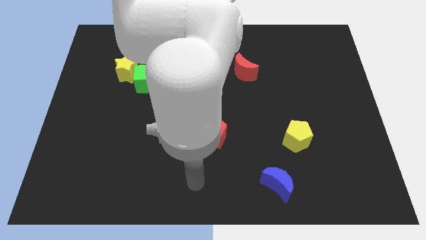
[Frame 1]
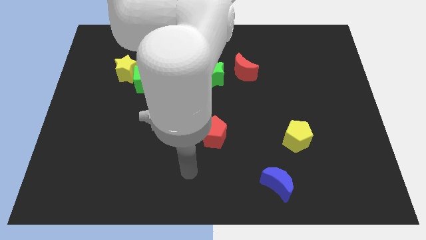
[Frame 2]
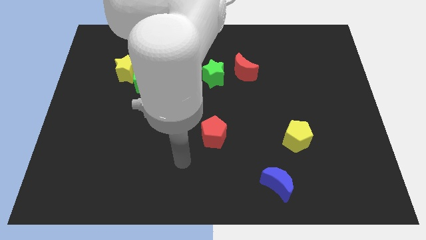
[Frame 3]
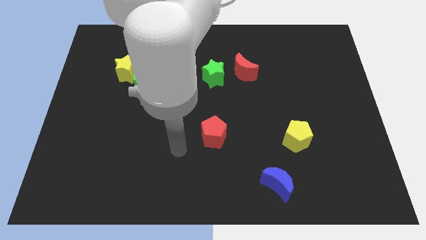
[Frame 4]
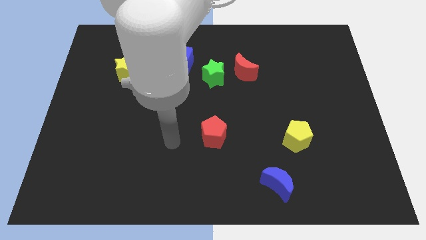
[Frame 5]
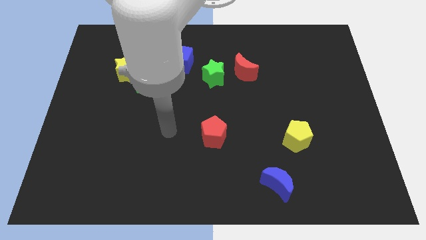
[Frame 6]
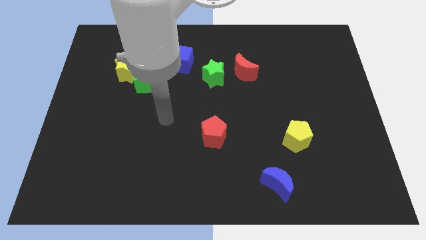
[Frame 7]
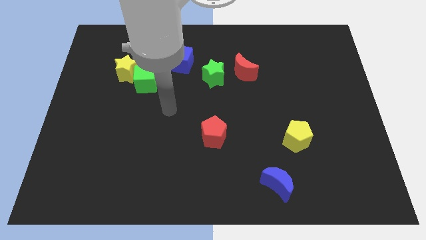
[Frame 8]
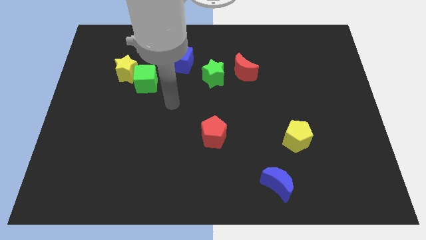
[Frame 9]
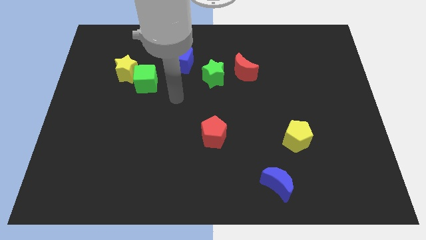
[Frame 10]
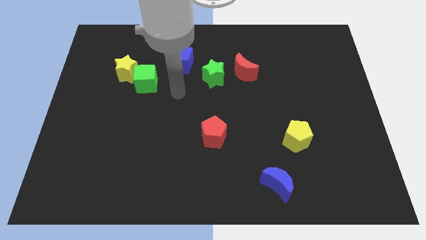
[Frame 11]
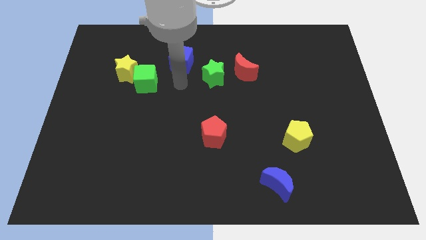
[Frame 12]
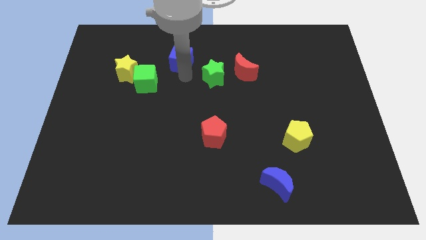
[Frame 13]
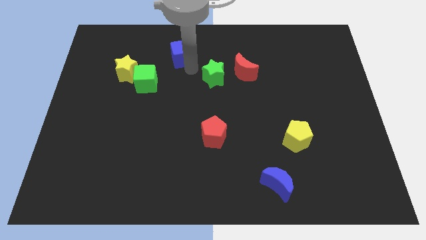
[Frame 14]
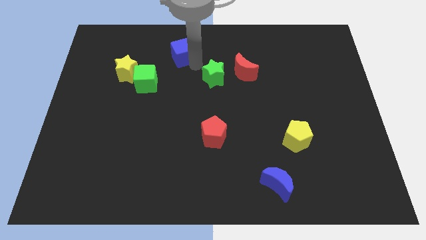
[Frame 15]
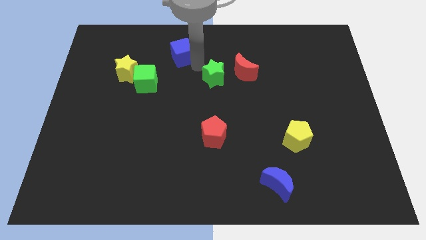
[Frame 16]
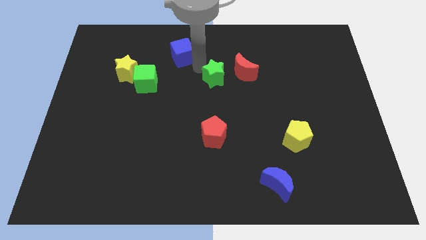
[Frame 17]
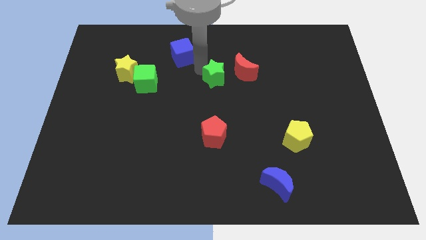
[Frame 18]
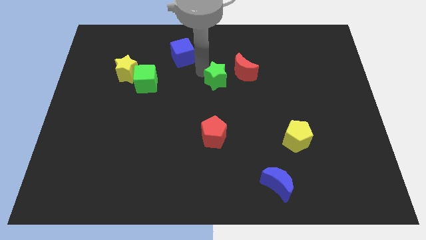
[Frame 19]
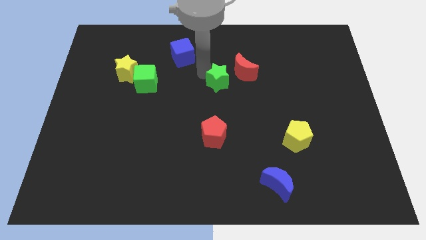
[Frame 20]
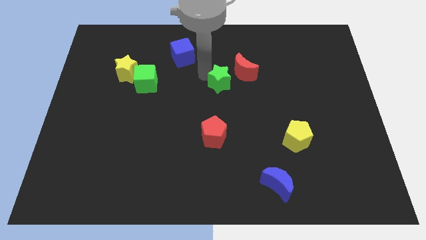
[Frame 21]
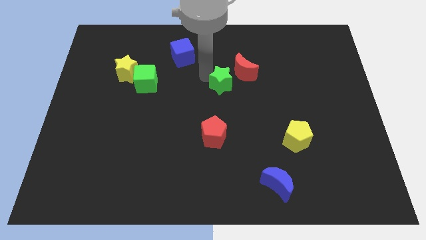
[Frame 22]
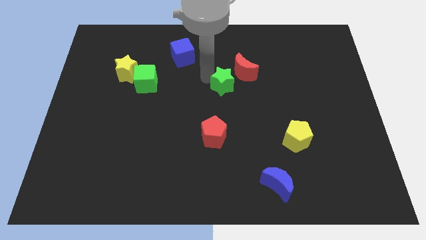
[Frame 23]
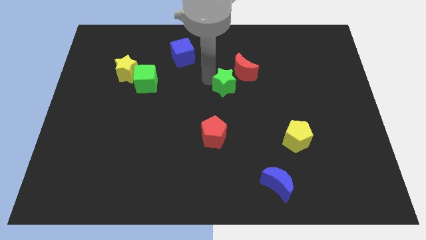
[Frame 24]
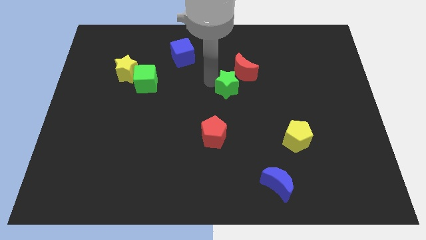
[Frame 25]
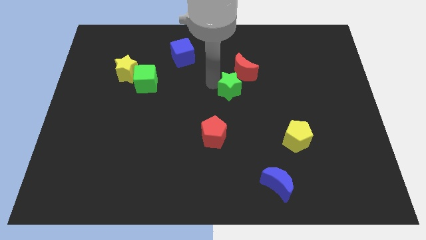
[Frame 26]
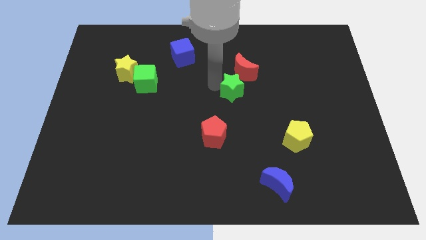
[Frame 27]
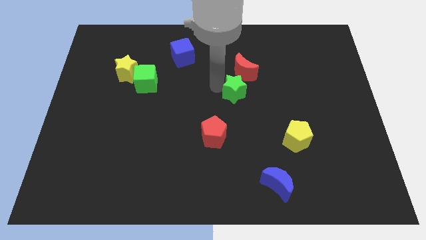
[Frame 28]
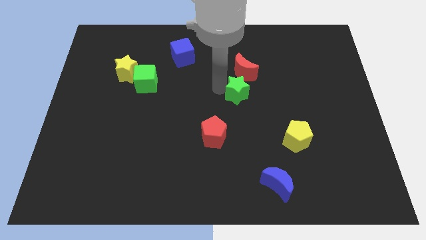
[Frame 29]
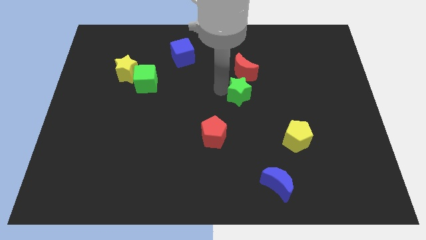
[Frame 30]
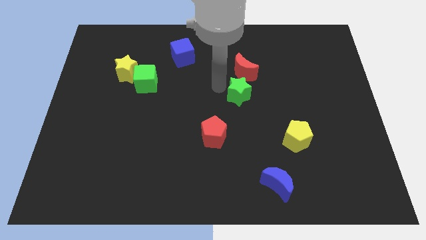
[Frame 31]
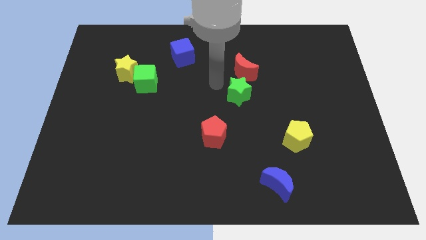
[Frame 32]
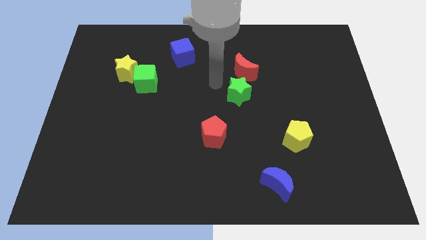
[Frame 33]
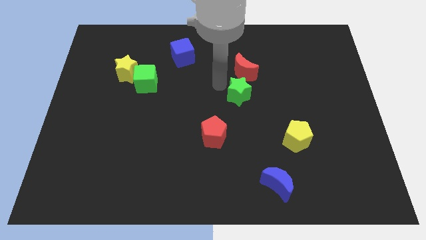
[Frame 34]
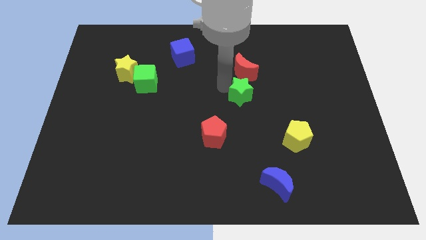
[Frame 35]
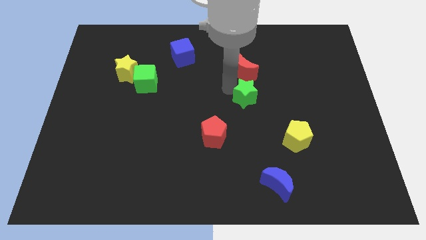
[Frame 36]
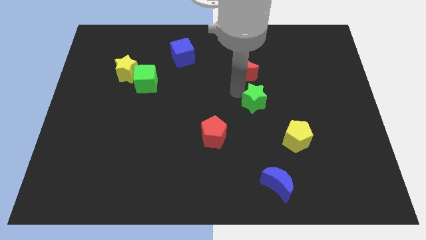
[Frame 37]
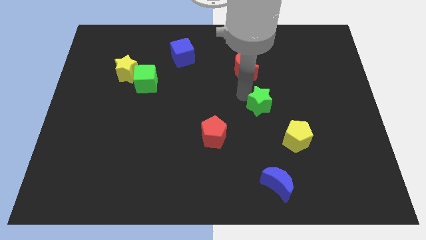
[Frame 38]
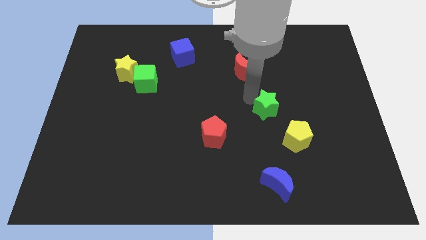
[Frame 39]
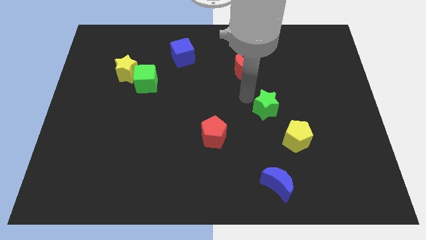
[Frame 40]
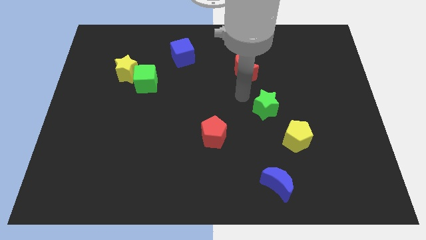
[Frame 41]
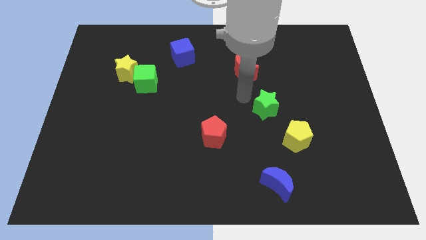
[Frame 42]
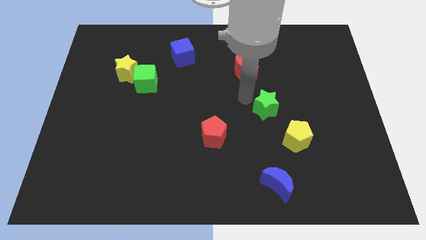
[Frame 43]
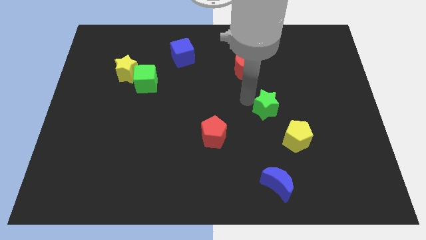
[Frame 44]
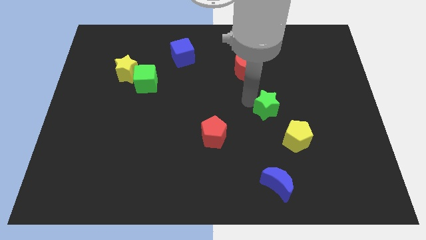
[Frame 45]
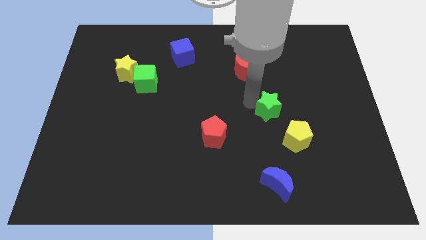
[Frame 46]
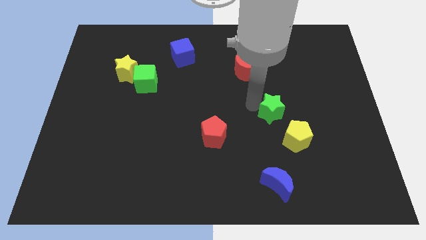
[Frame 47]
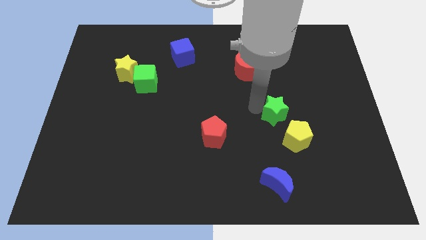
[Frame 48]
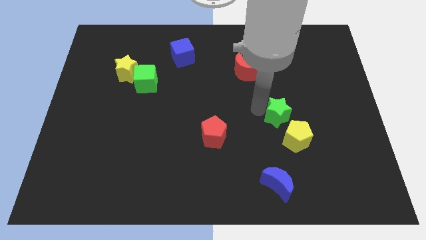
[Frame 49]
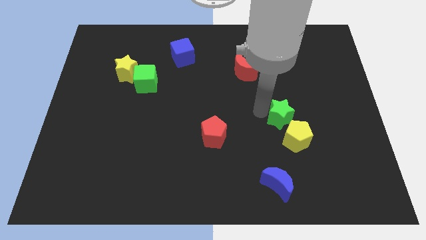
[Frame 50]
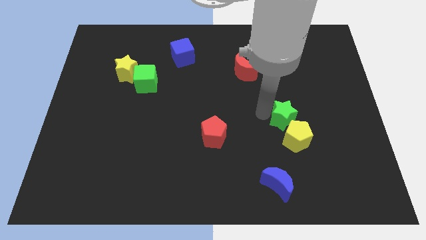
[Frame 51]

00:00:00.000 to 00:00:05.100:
slide the green star diagonally downwards and right

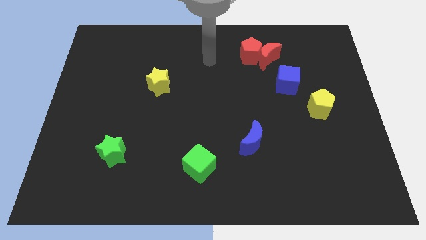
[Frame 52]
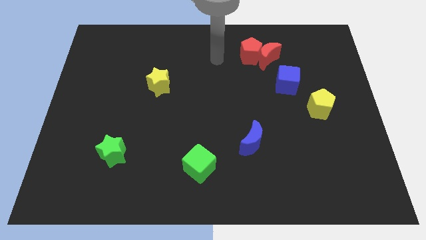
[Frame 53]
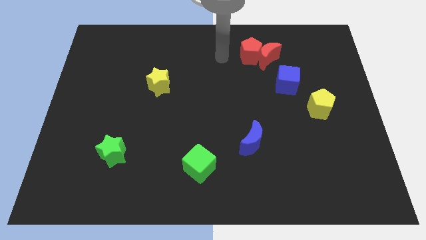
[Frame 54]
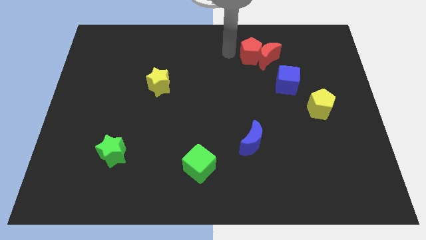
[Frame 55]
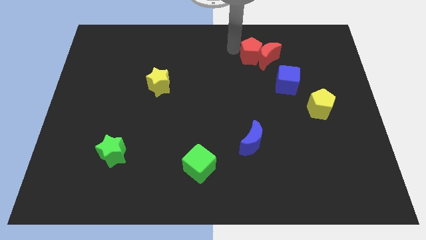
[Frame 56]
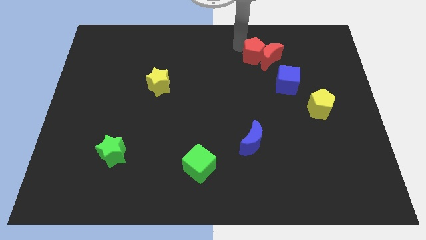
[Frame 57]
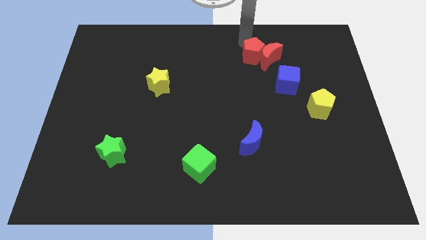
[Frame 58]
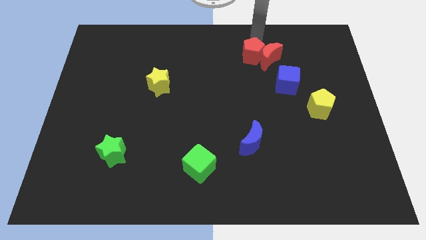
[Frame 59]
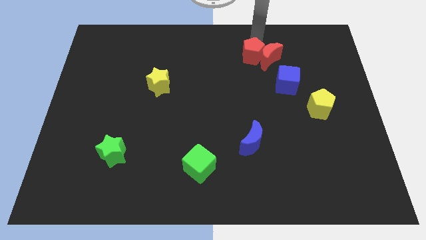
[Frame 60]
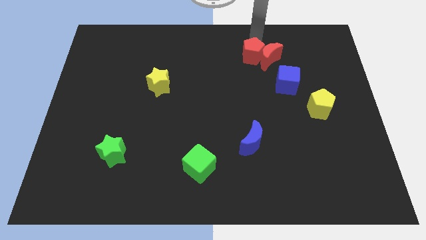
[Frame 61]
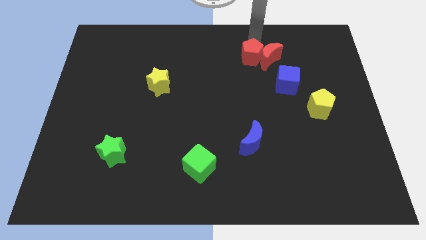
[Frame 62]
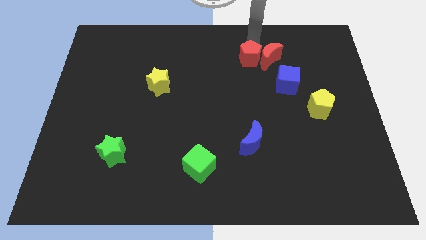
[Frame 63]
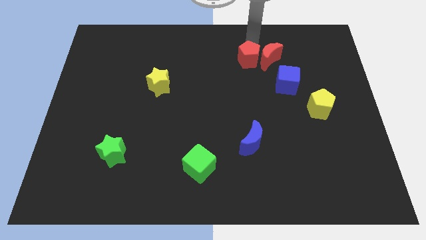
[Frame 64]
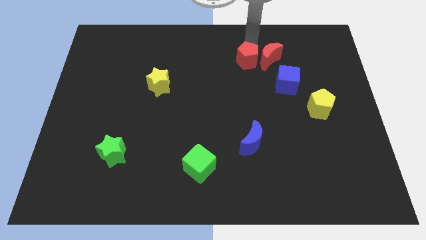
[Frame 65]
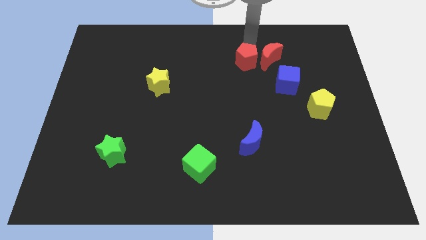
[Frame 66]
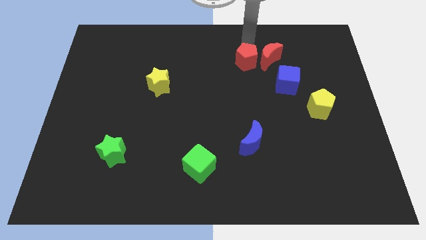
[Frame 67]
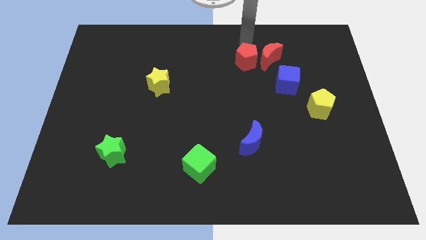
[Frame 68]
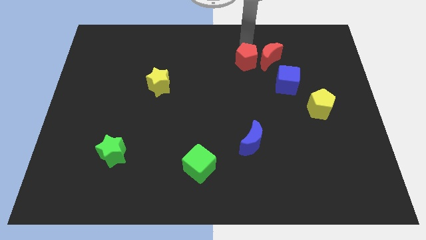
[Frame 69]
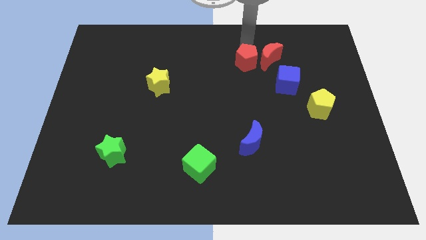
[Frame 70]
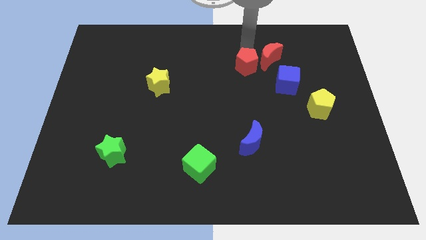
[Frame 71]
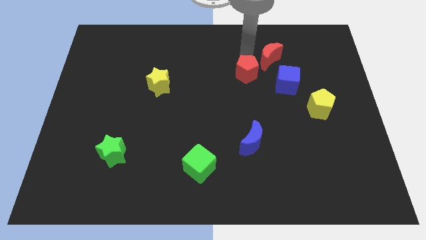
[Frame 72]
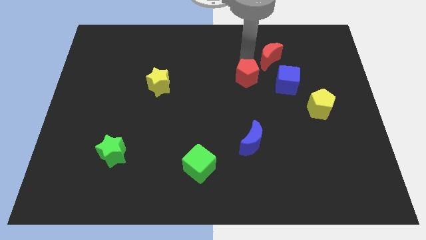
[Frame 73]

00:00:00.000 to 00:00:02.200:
move the red pentagon a bit downwards

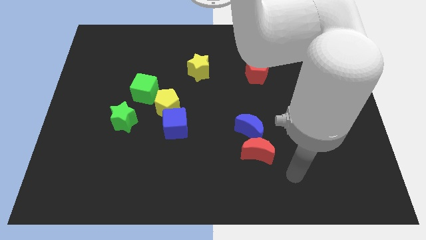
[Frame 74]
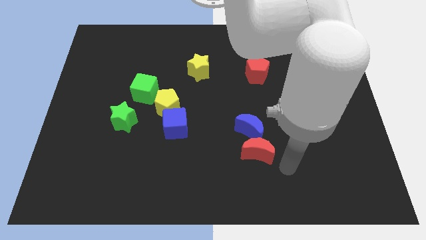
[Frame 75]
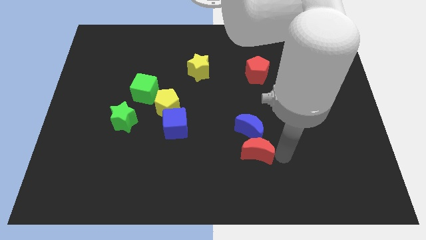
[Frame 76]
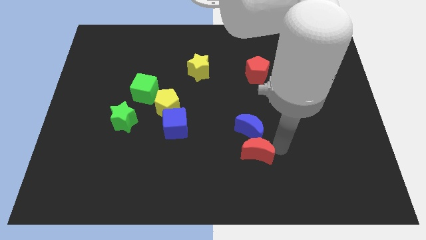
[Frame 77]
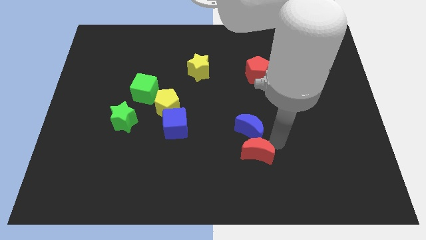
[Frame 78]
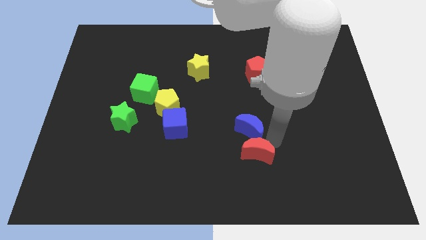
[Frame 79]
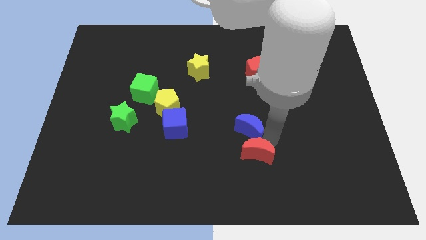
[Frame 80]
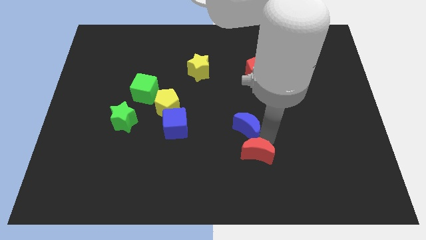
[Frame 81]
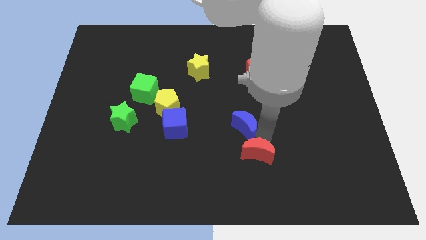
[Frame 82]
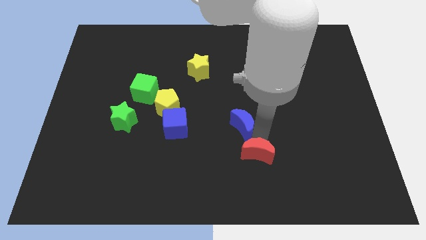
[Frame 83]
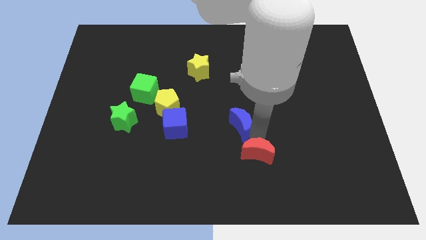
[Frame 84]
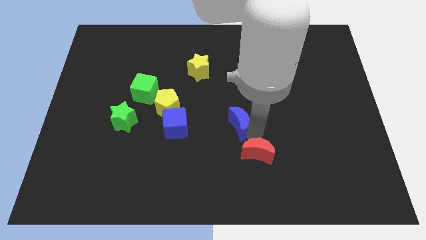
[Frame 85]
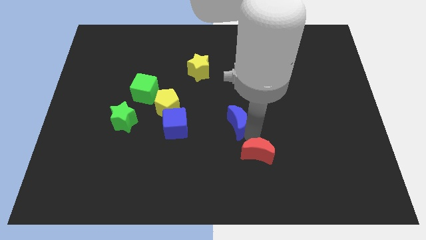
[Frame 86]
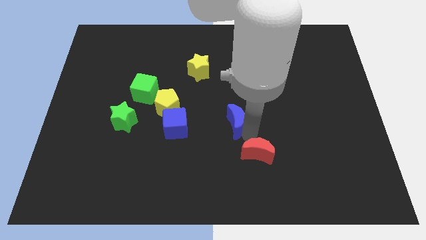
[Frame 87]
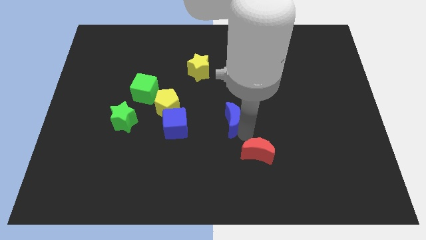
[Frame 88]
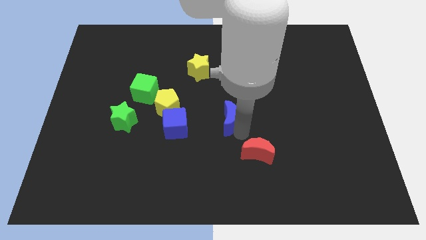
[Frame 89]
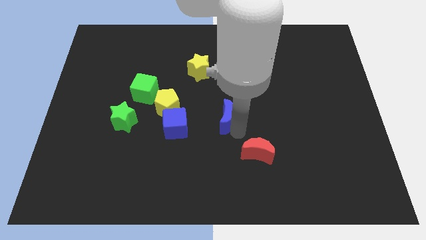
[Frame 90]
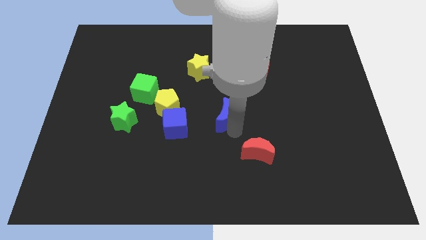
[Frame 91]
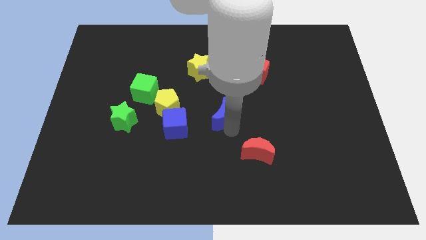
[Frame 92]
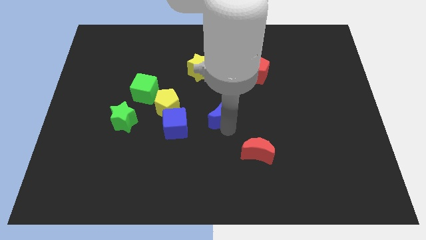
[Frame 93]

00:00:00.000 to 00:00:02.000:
push the blue moon slightly upwards and left diagonally
